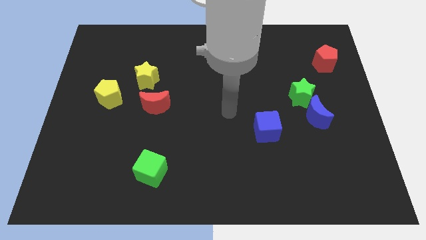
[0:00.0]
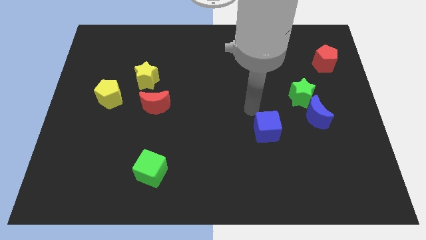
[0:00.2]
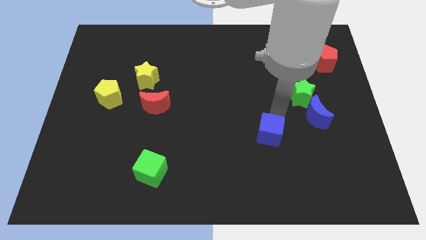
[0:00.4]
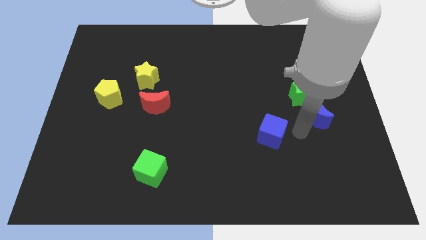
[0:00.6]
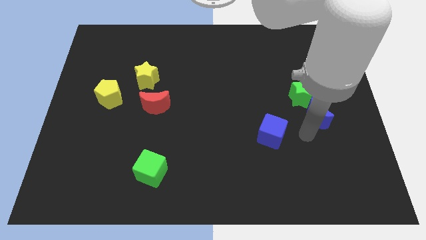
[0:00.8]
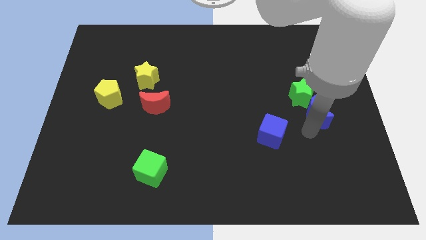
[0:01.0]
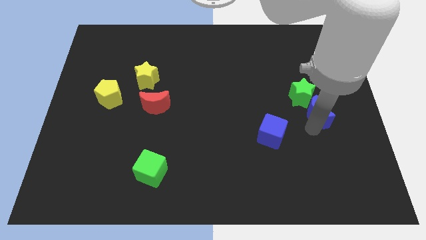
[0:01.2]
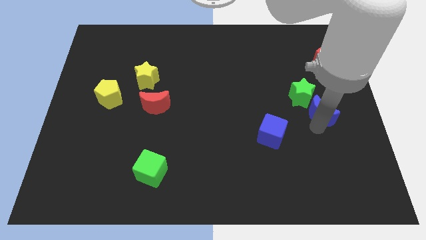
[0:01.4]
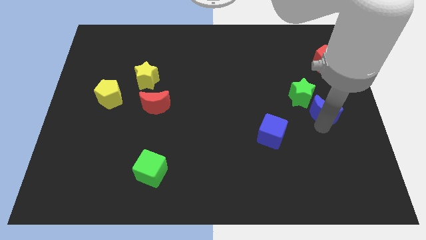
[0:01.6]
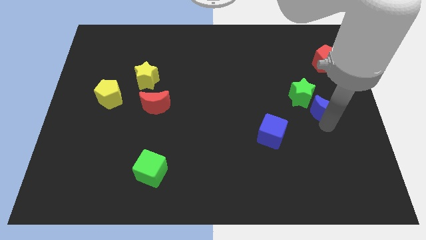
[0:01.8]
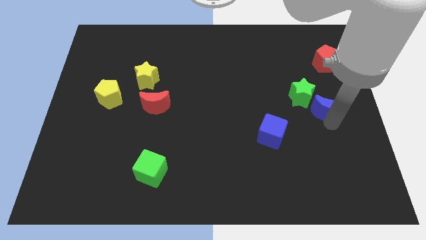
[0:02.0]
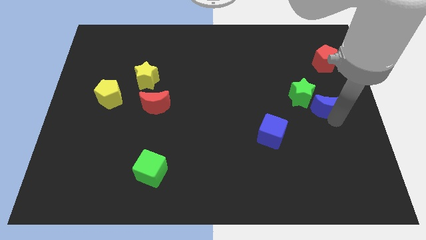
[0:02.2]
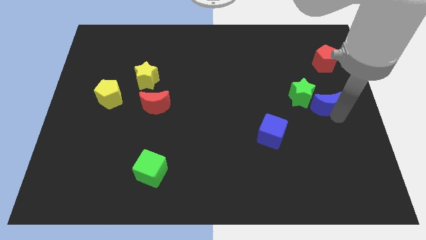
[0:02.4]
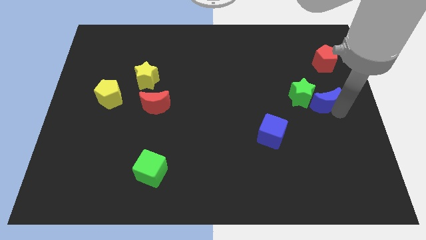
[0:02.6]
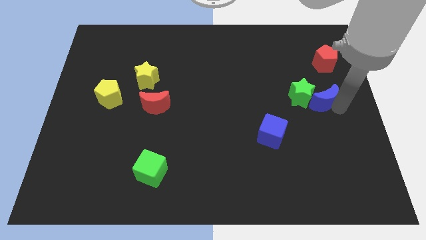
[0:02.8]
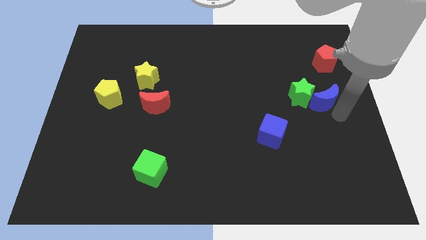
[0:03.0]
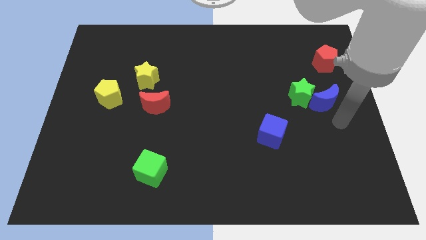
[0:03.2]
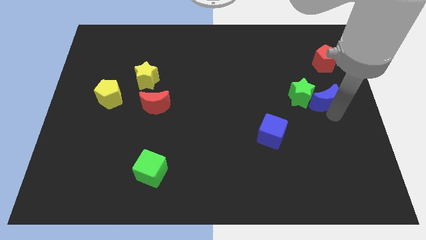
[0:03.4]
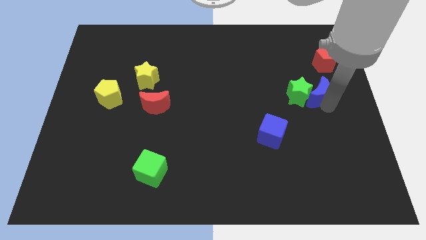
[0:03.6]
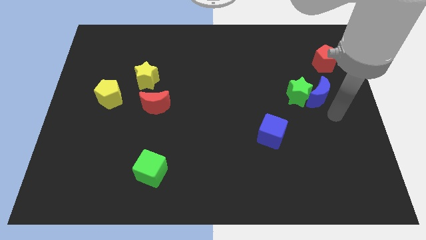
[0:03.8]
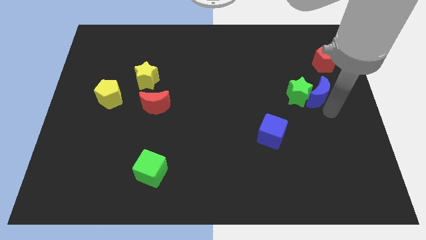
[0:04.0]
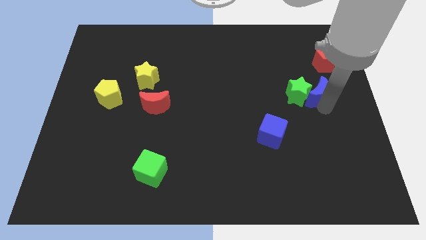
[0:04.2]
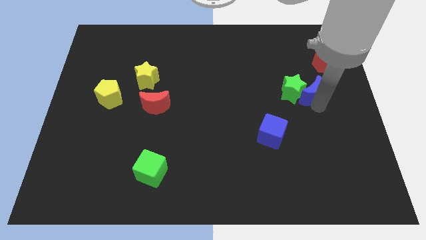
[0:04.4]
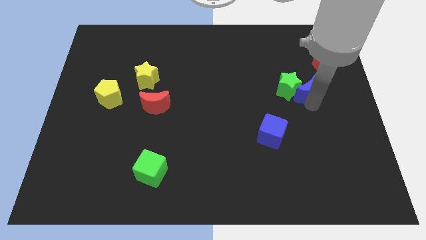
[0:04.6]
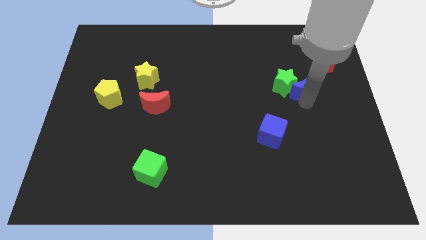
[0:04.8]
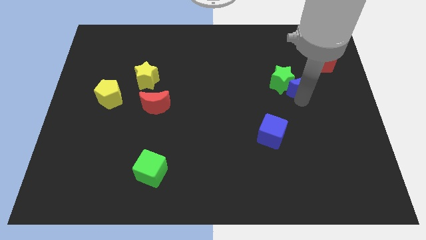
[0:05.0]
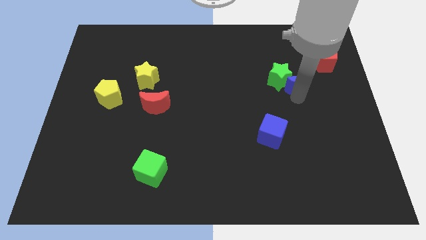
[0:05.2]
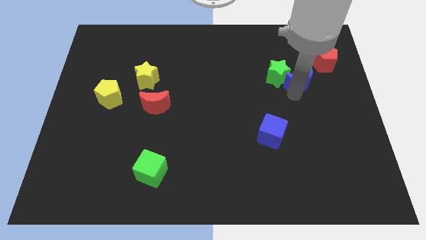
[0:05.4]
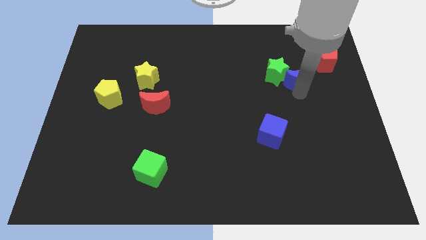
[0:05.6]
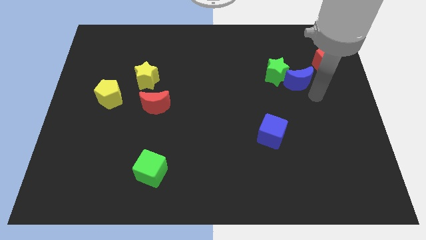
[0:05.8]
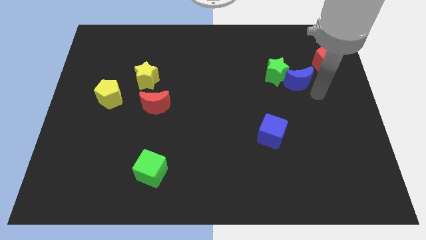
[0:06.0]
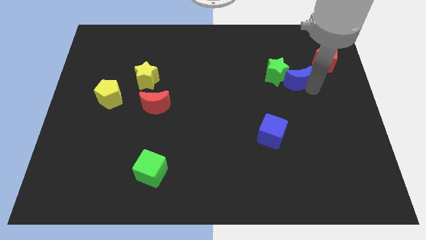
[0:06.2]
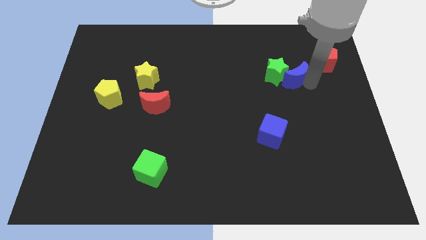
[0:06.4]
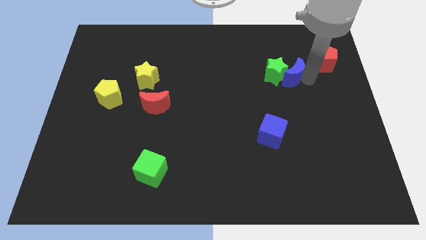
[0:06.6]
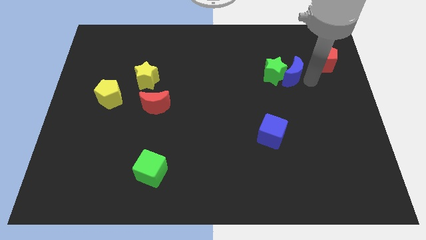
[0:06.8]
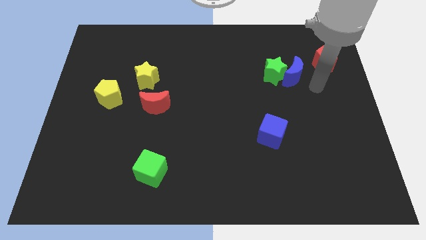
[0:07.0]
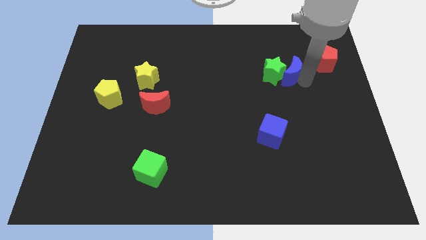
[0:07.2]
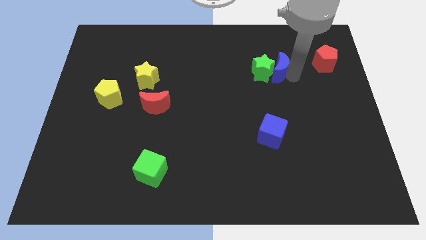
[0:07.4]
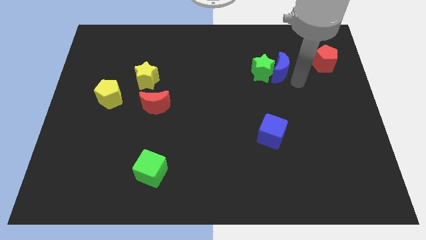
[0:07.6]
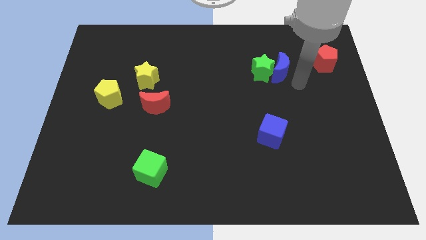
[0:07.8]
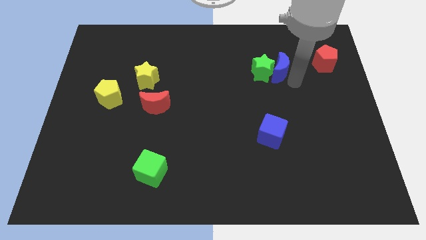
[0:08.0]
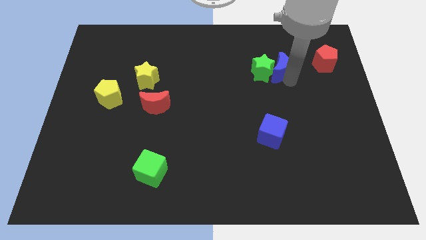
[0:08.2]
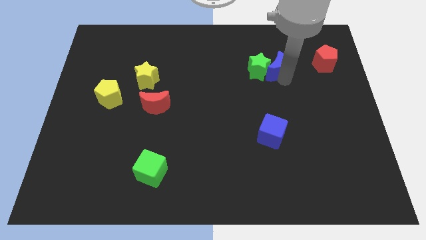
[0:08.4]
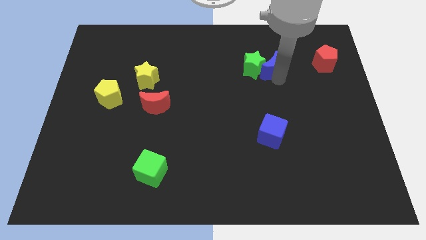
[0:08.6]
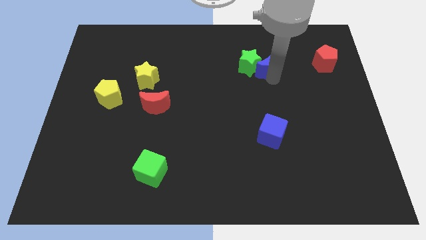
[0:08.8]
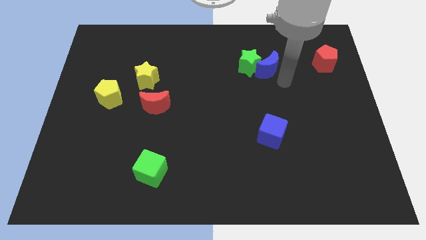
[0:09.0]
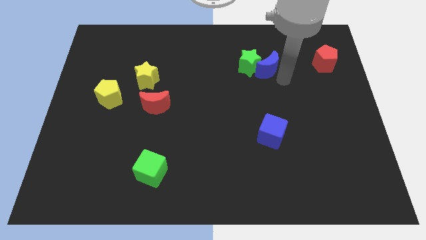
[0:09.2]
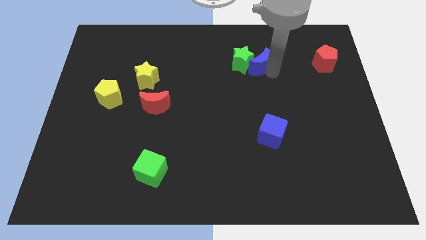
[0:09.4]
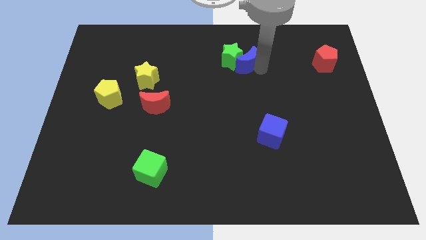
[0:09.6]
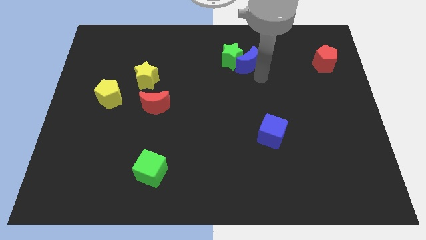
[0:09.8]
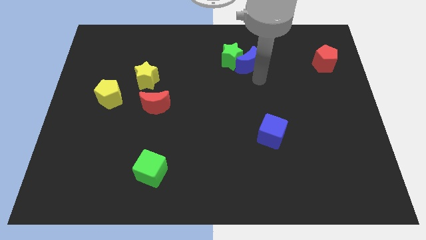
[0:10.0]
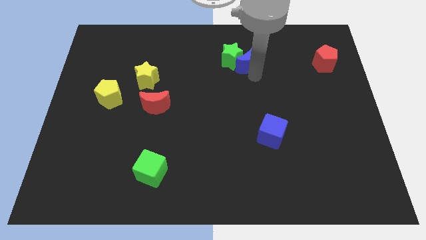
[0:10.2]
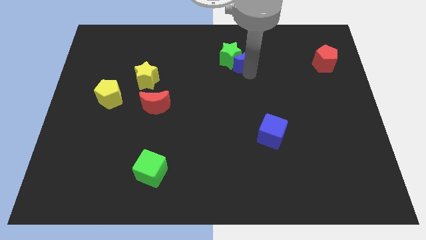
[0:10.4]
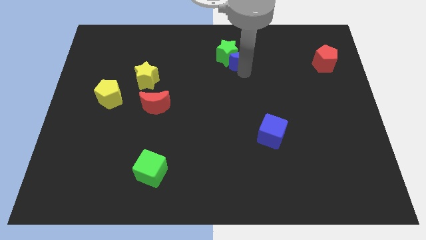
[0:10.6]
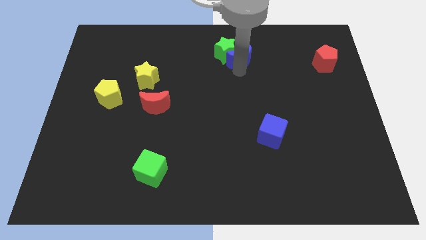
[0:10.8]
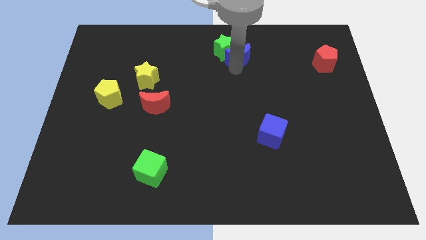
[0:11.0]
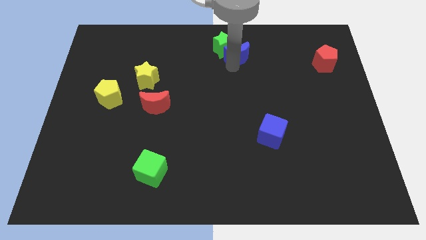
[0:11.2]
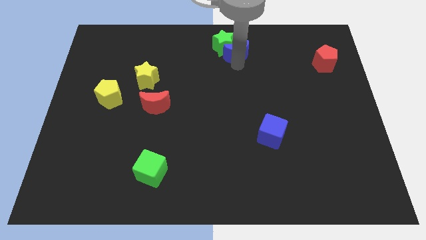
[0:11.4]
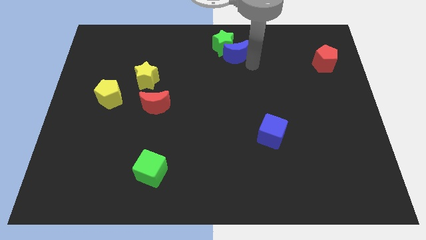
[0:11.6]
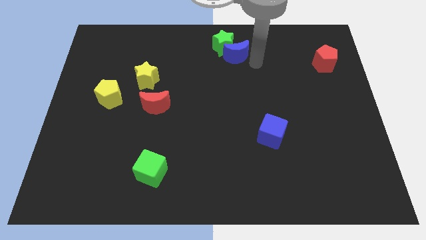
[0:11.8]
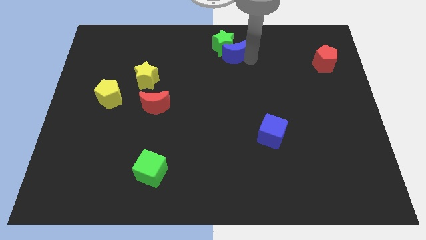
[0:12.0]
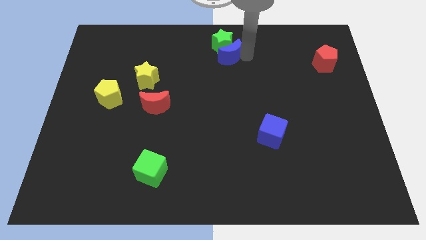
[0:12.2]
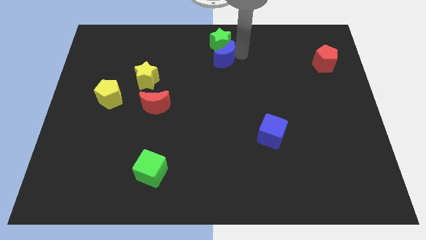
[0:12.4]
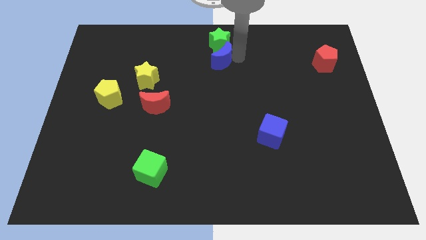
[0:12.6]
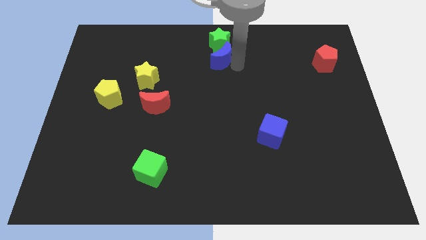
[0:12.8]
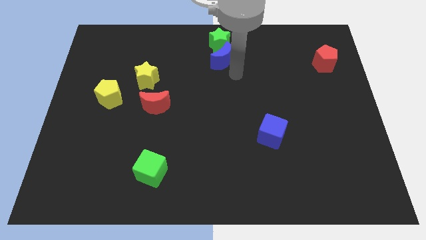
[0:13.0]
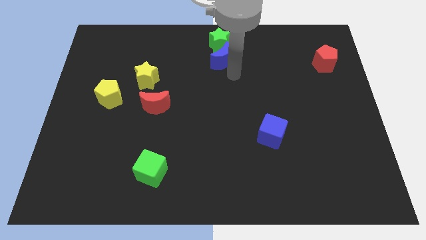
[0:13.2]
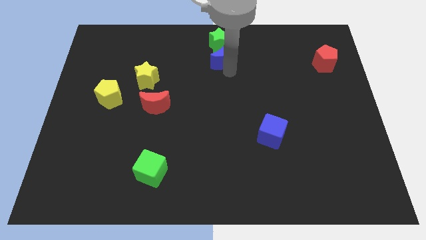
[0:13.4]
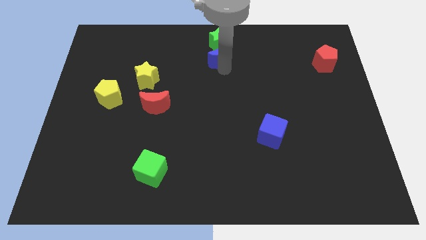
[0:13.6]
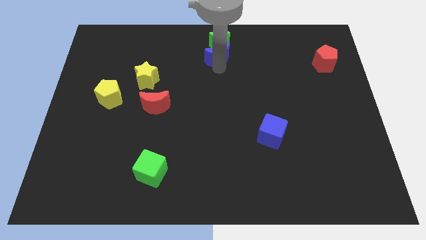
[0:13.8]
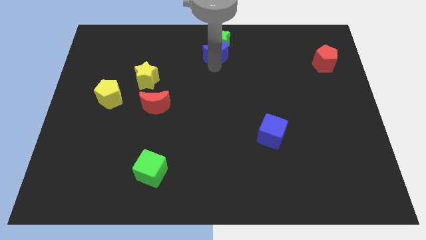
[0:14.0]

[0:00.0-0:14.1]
put the blue moon to the top side
